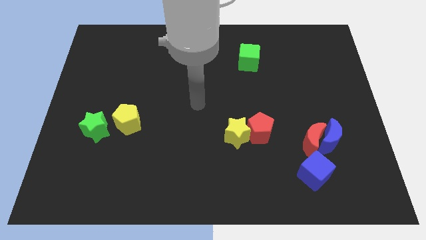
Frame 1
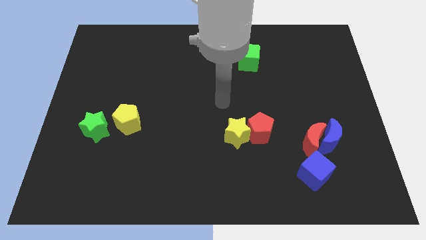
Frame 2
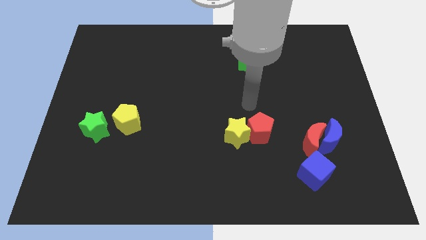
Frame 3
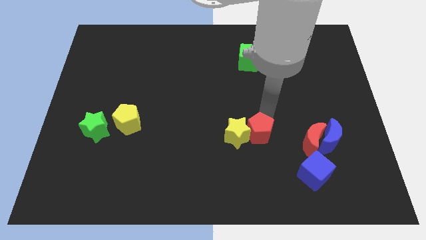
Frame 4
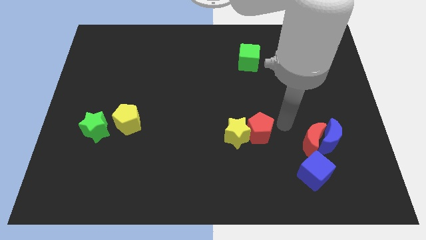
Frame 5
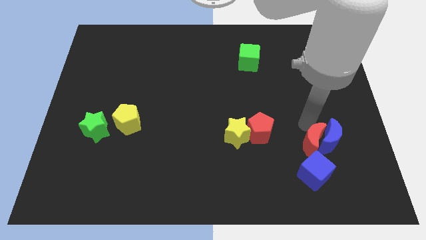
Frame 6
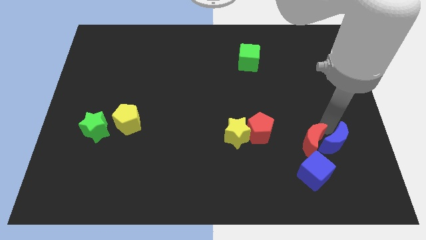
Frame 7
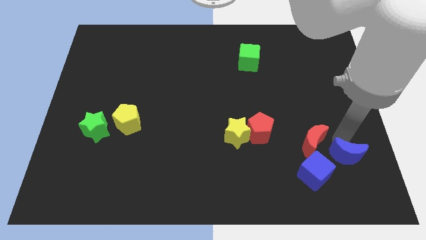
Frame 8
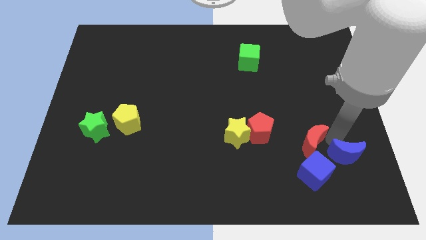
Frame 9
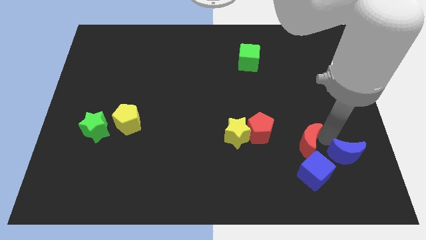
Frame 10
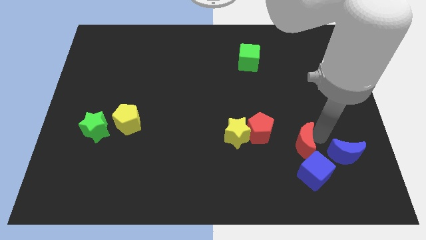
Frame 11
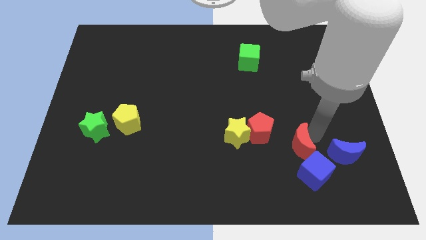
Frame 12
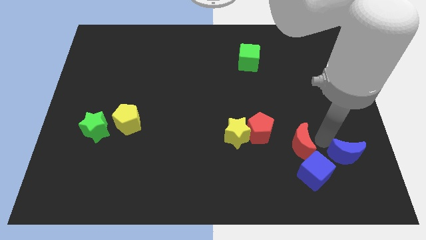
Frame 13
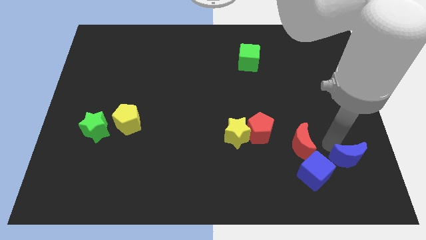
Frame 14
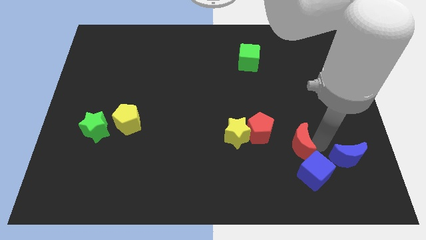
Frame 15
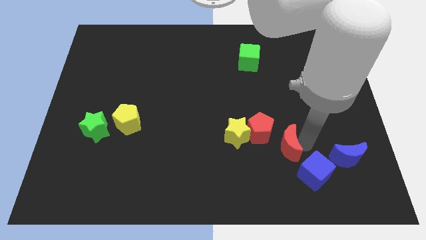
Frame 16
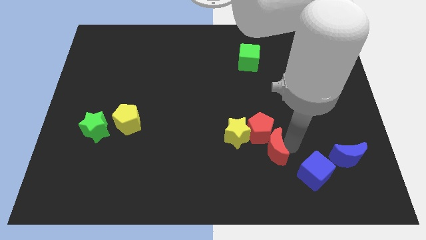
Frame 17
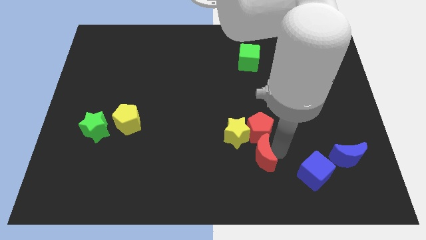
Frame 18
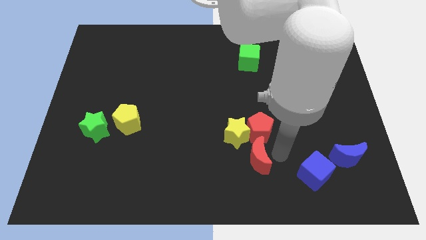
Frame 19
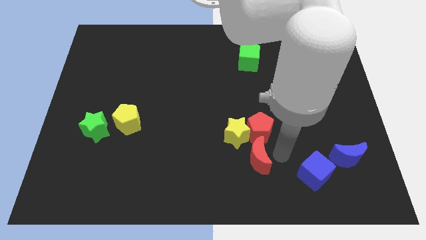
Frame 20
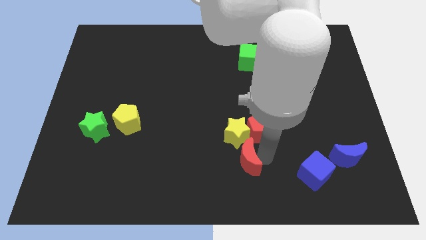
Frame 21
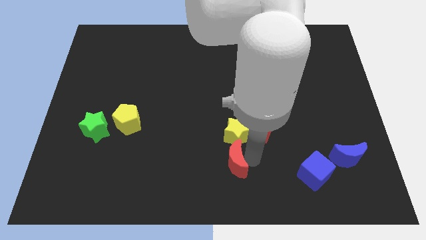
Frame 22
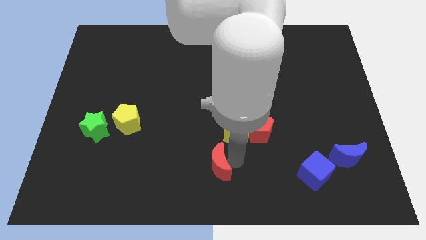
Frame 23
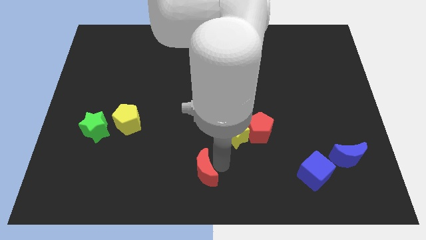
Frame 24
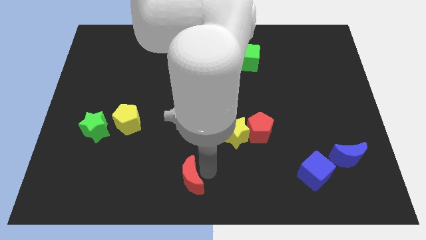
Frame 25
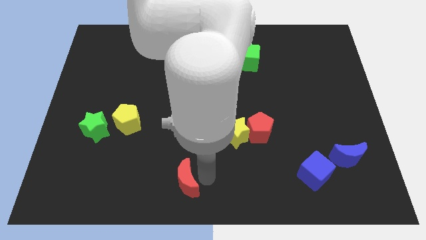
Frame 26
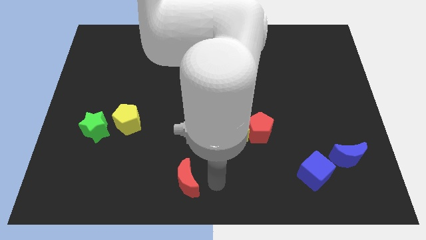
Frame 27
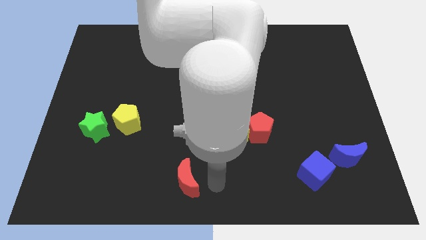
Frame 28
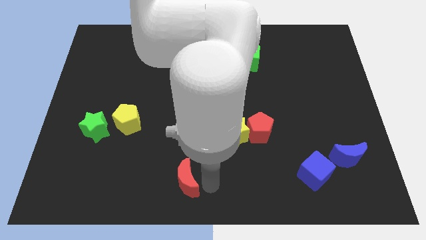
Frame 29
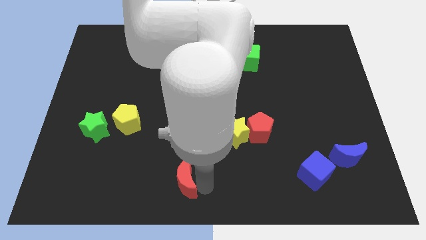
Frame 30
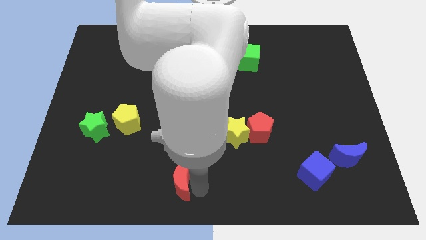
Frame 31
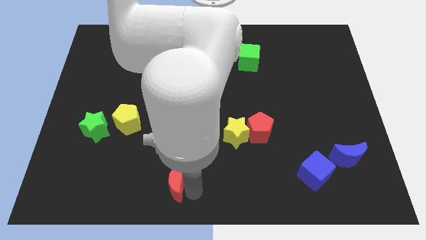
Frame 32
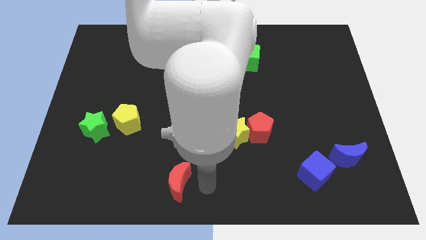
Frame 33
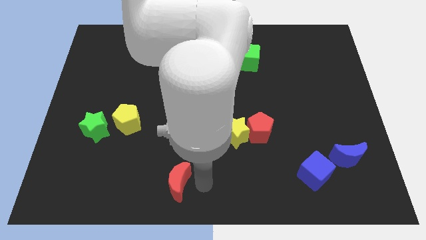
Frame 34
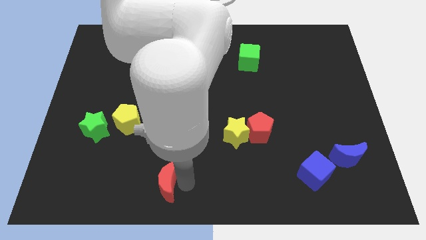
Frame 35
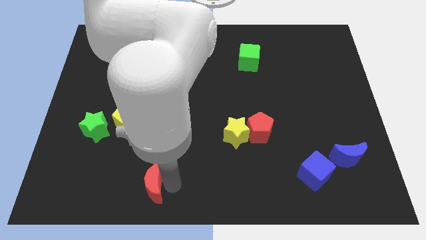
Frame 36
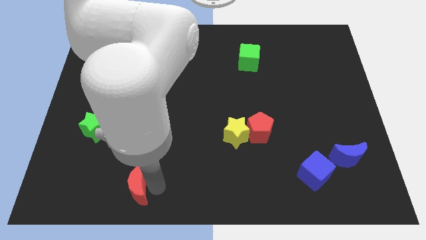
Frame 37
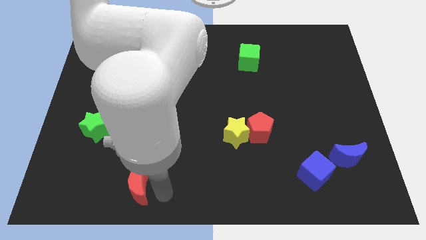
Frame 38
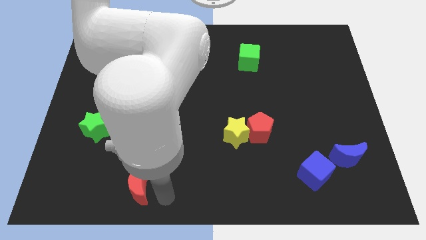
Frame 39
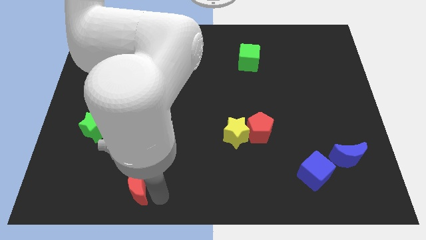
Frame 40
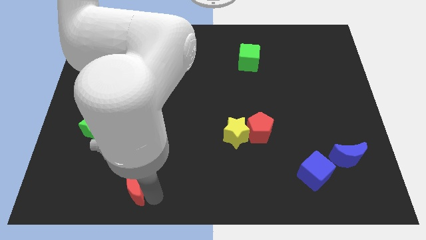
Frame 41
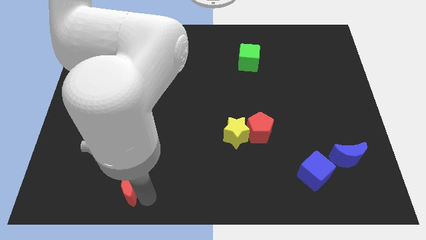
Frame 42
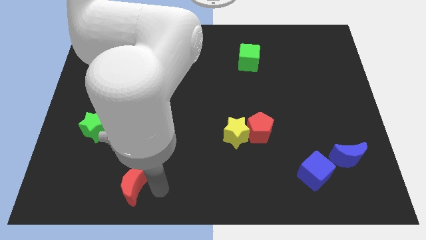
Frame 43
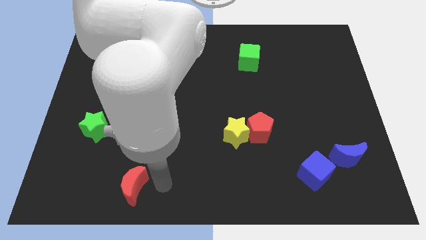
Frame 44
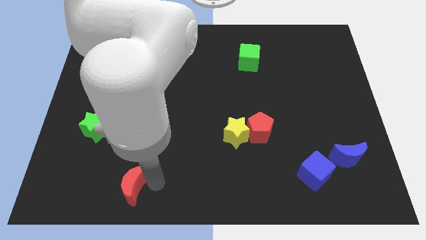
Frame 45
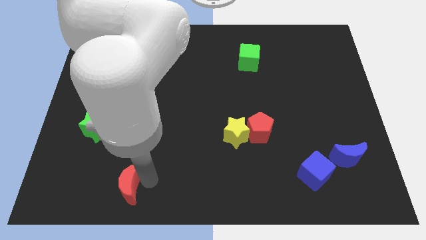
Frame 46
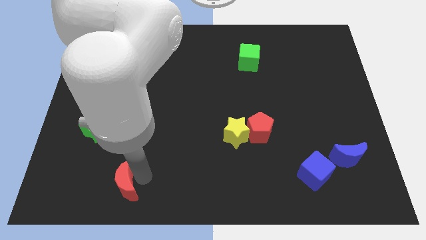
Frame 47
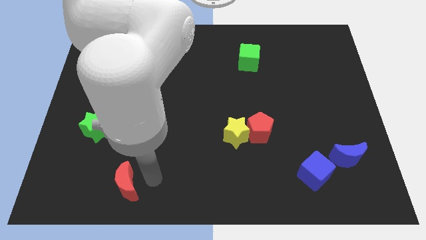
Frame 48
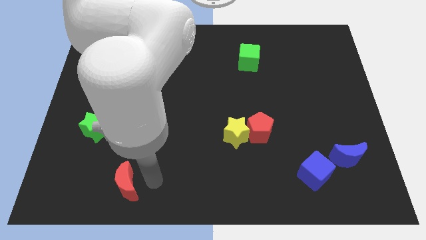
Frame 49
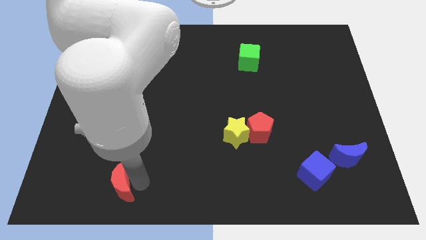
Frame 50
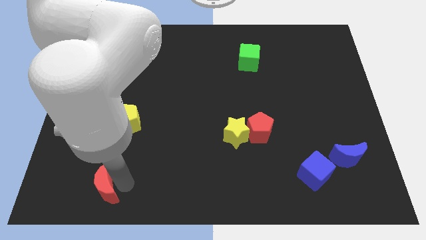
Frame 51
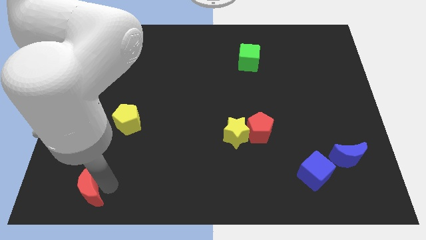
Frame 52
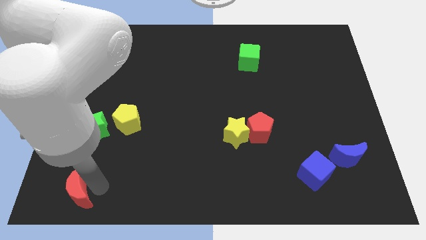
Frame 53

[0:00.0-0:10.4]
put the red moon to the bottom left corner
